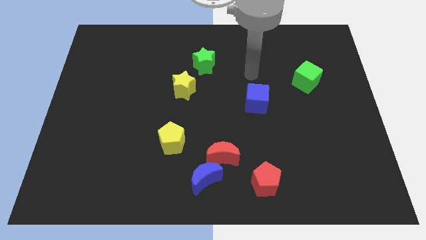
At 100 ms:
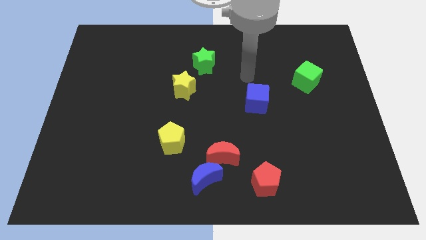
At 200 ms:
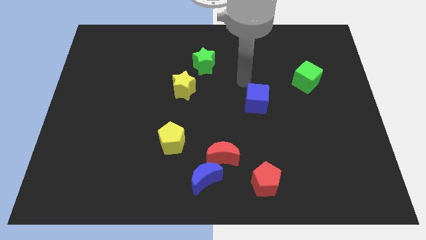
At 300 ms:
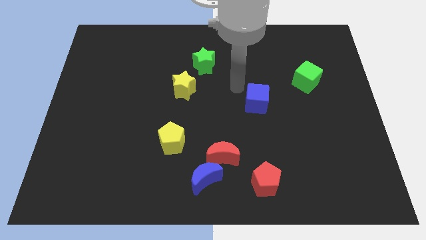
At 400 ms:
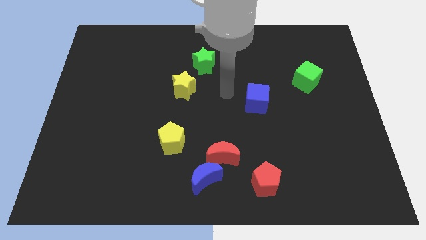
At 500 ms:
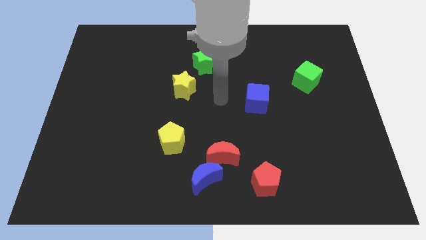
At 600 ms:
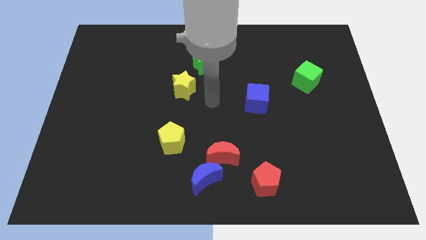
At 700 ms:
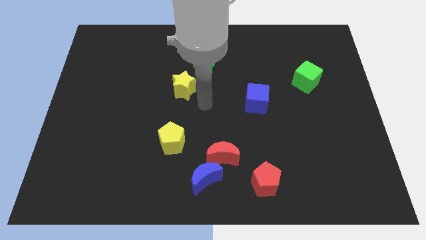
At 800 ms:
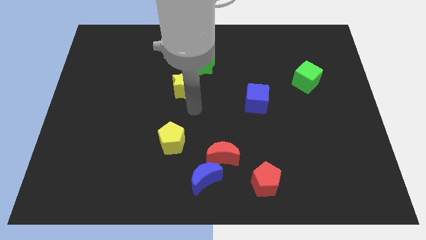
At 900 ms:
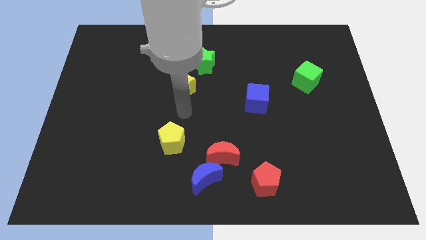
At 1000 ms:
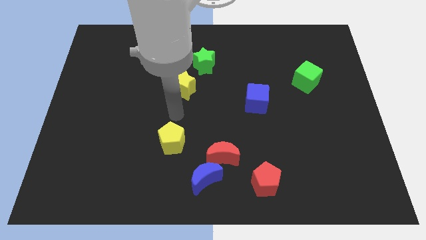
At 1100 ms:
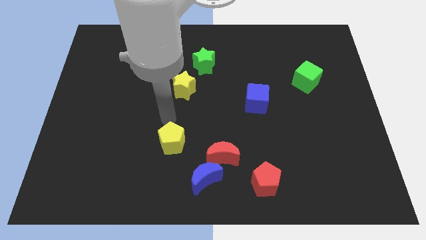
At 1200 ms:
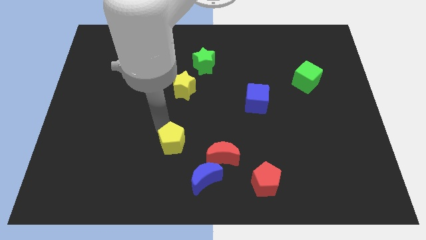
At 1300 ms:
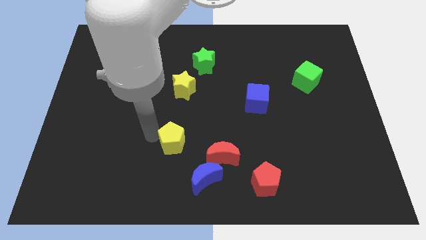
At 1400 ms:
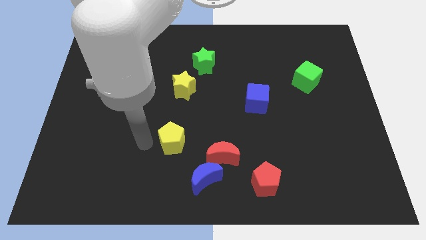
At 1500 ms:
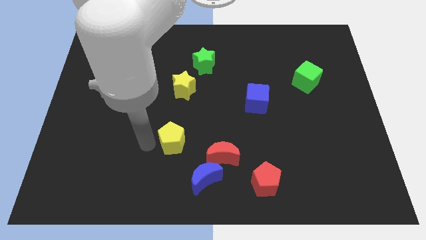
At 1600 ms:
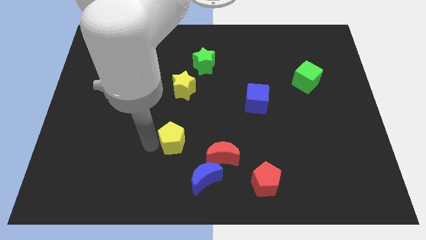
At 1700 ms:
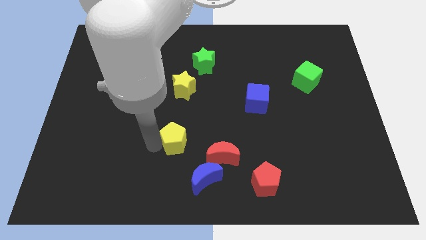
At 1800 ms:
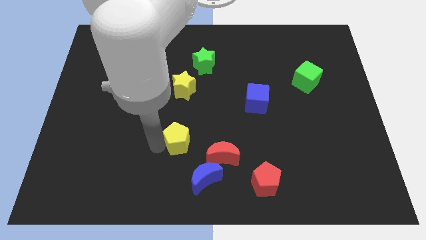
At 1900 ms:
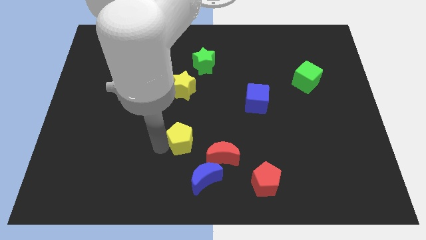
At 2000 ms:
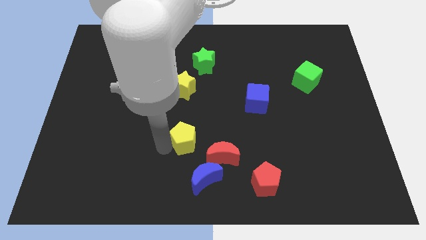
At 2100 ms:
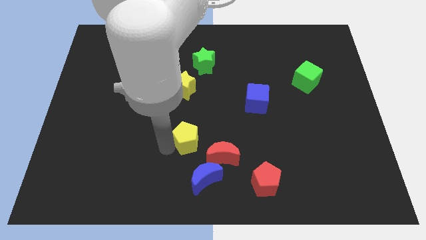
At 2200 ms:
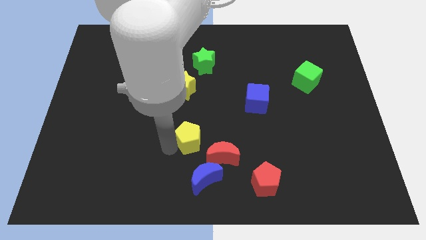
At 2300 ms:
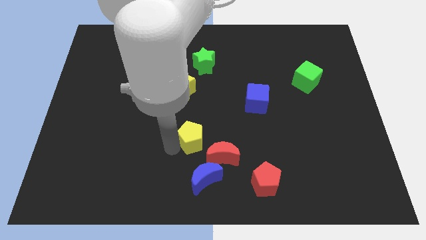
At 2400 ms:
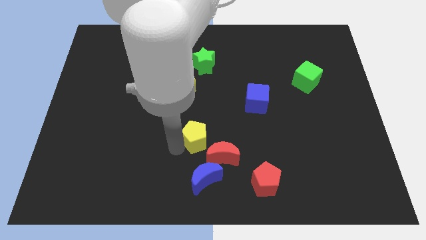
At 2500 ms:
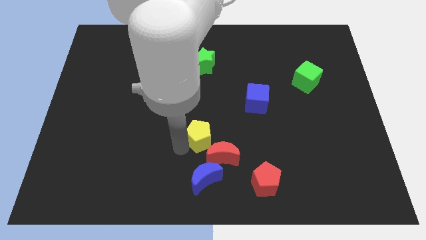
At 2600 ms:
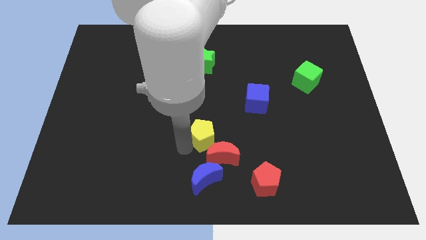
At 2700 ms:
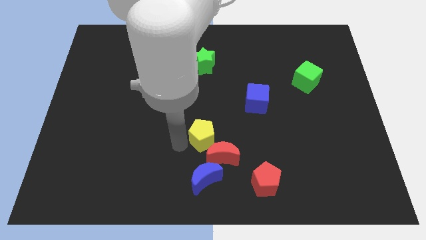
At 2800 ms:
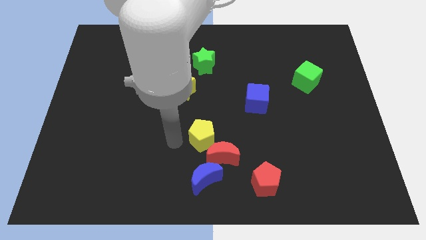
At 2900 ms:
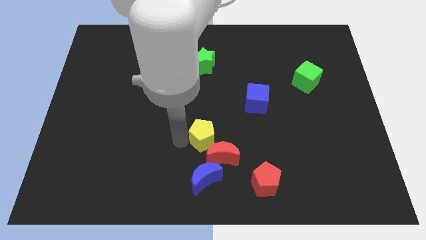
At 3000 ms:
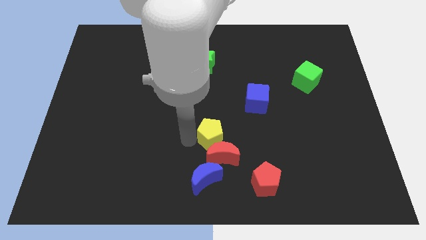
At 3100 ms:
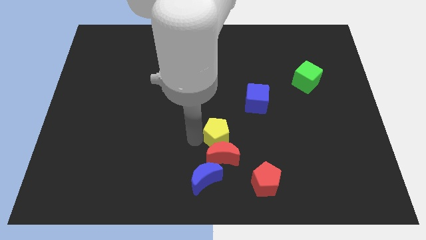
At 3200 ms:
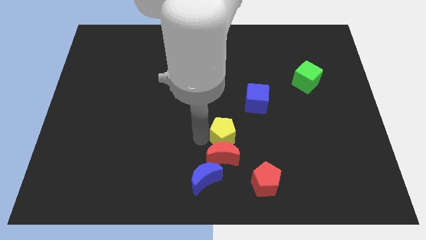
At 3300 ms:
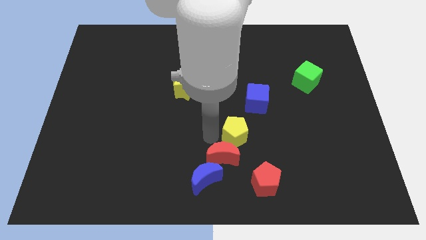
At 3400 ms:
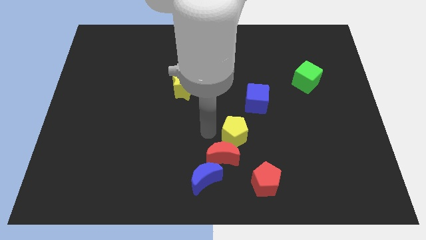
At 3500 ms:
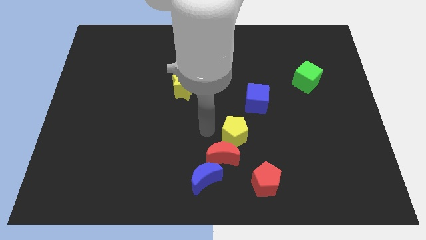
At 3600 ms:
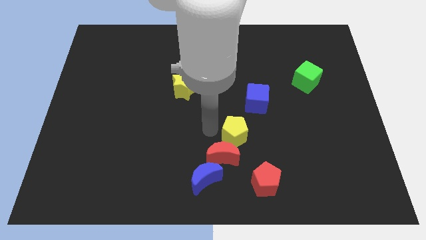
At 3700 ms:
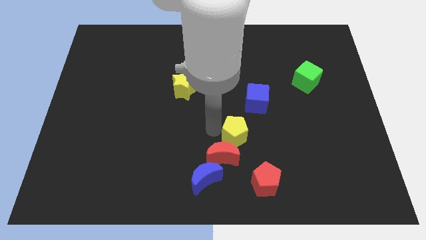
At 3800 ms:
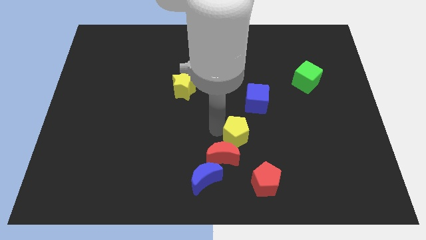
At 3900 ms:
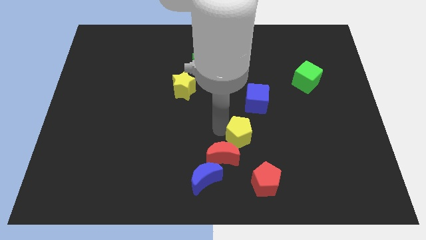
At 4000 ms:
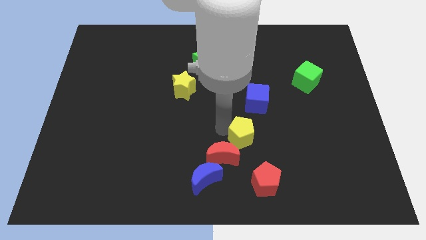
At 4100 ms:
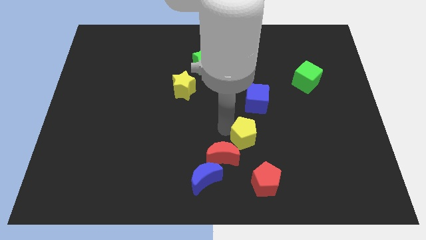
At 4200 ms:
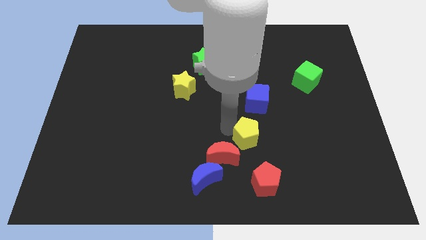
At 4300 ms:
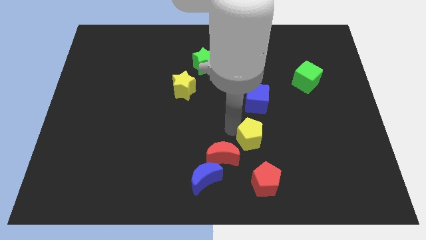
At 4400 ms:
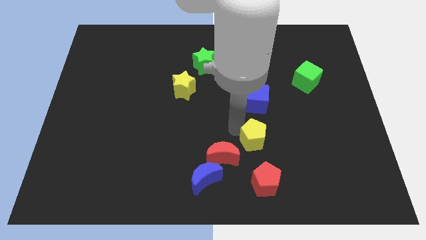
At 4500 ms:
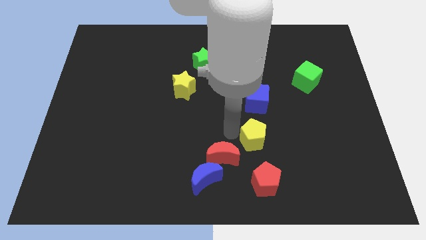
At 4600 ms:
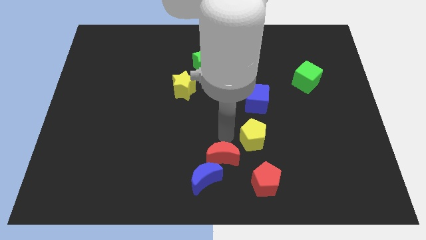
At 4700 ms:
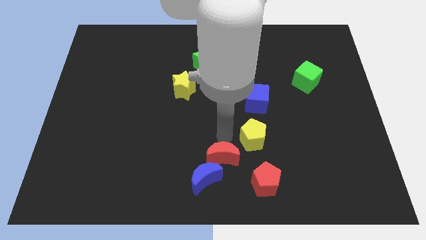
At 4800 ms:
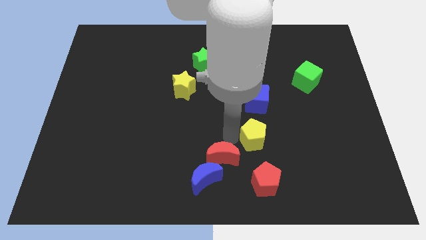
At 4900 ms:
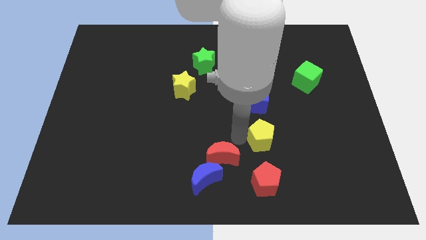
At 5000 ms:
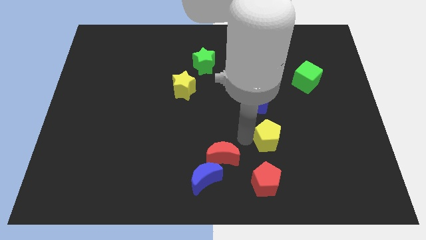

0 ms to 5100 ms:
move the yellow pentagon right

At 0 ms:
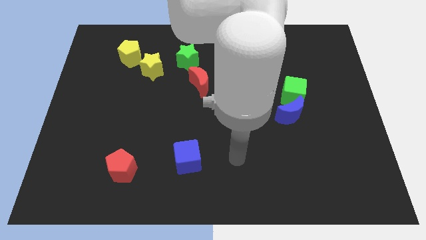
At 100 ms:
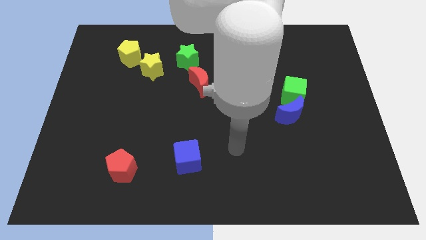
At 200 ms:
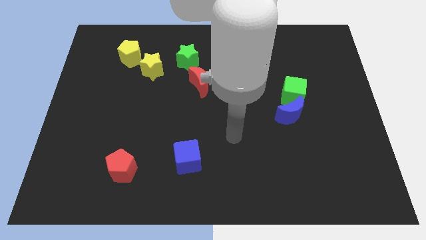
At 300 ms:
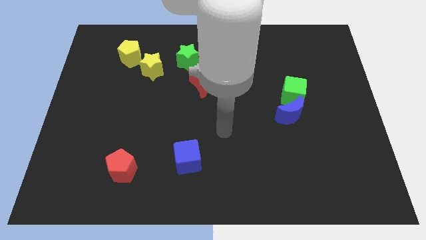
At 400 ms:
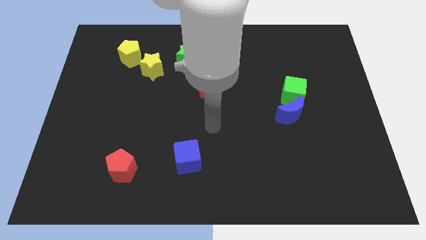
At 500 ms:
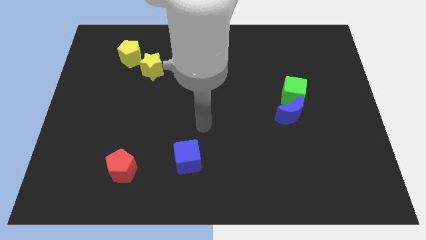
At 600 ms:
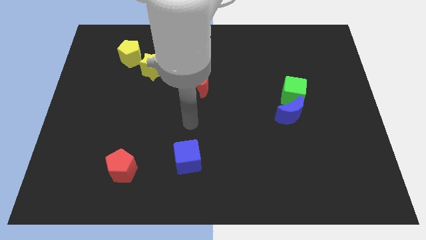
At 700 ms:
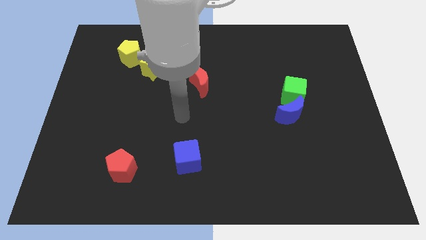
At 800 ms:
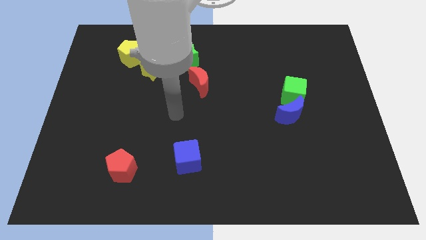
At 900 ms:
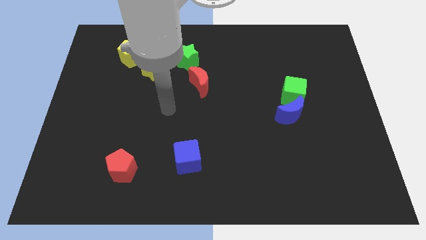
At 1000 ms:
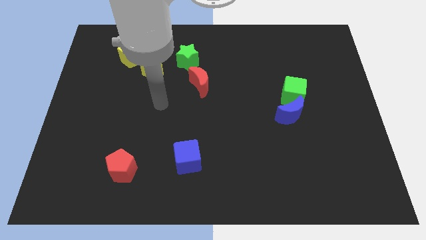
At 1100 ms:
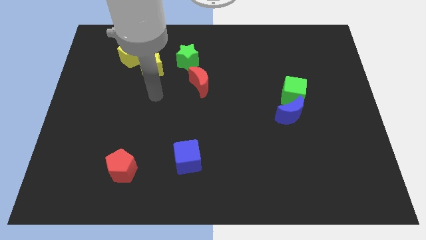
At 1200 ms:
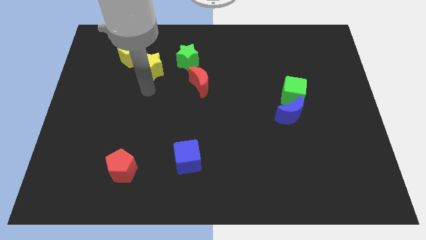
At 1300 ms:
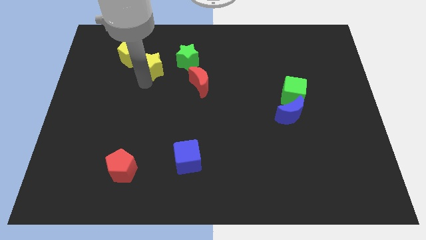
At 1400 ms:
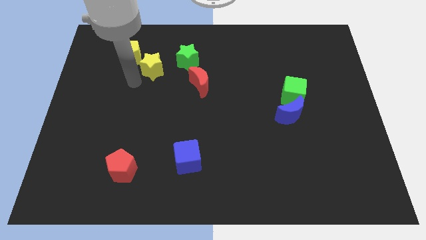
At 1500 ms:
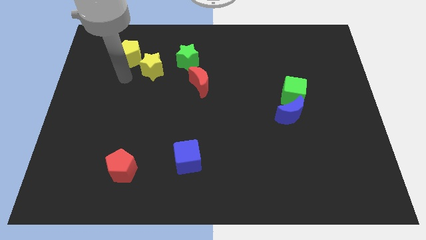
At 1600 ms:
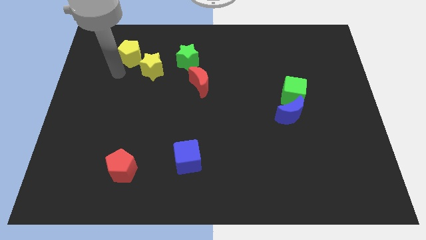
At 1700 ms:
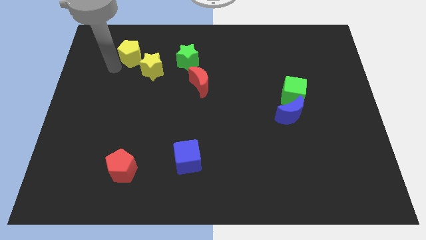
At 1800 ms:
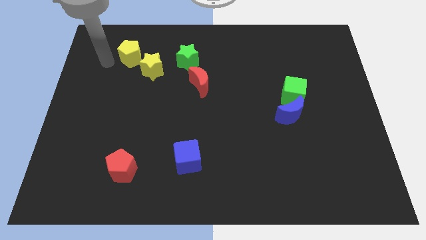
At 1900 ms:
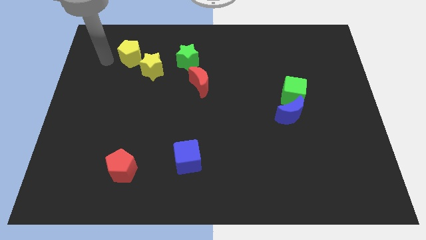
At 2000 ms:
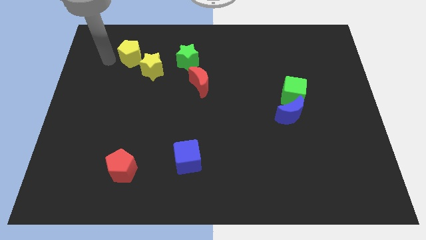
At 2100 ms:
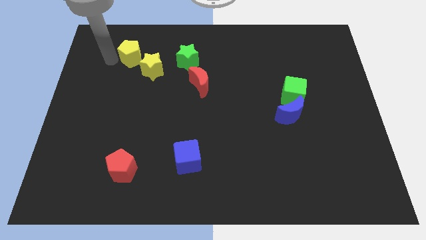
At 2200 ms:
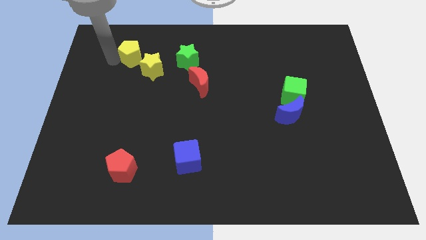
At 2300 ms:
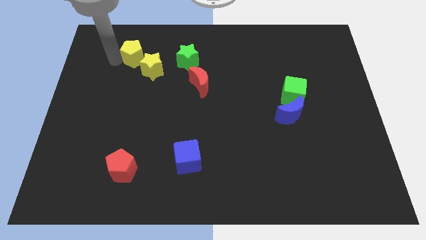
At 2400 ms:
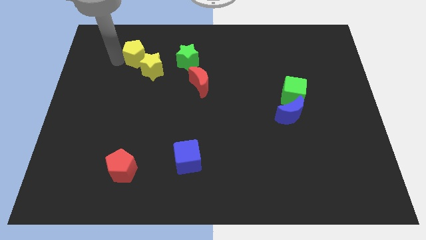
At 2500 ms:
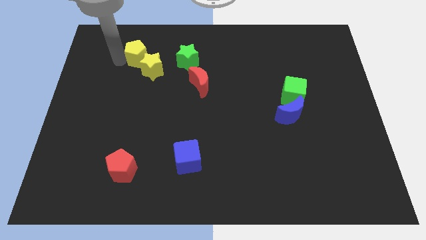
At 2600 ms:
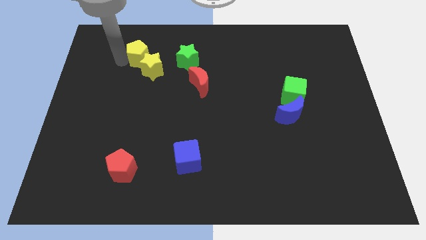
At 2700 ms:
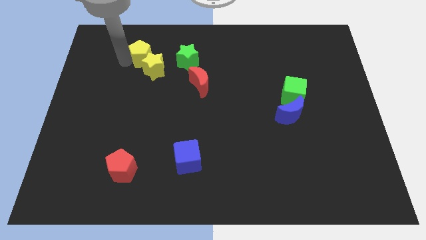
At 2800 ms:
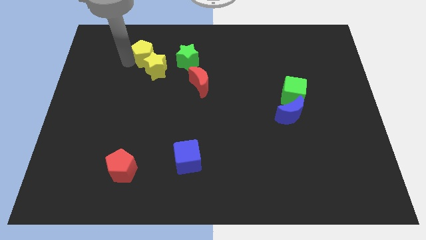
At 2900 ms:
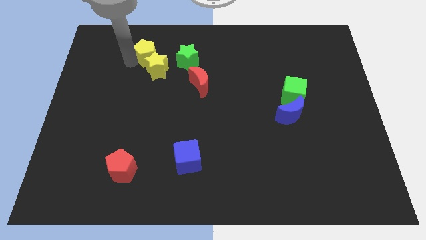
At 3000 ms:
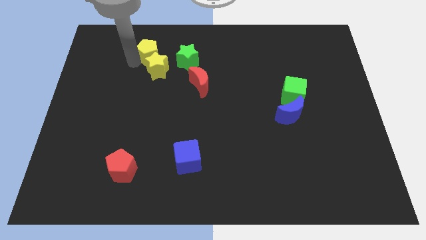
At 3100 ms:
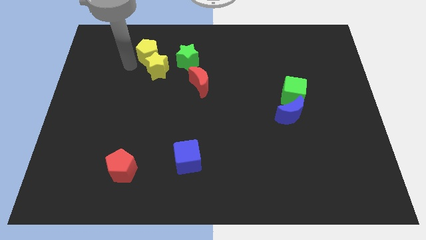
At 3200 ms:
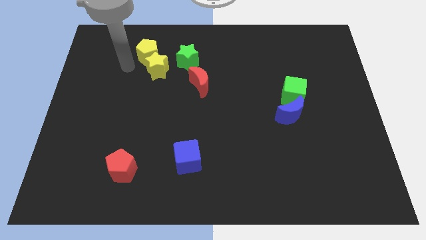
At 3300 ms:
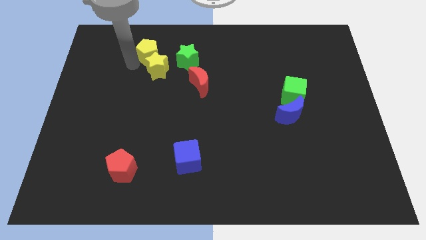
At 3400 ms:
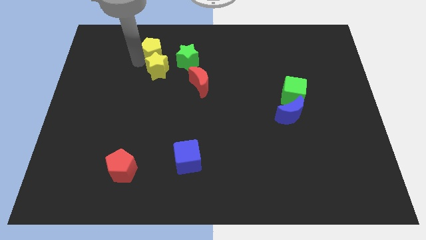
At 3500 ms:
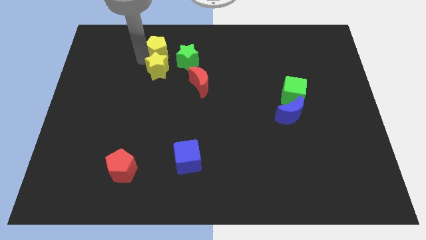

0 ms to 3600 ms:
slide the yellow pentagon to the right slightly
